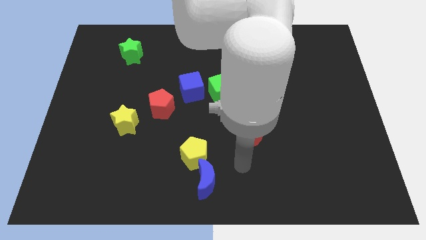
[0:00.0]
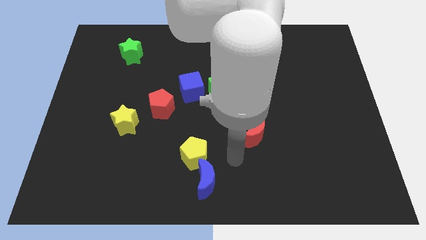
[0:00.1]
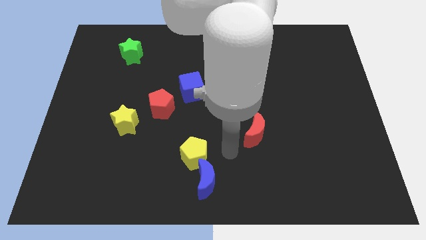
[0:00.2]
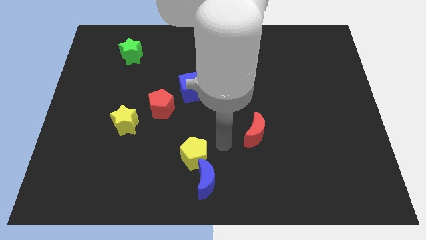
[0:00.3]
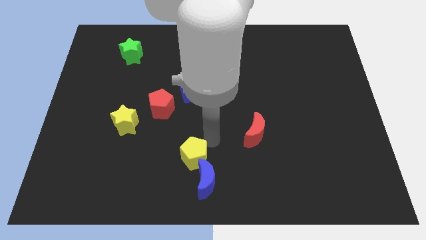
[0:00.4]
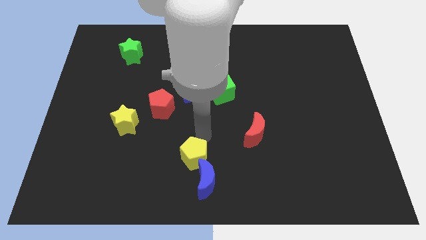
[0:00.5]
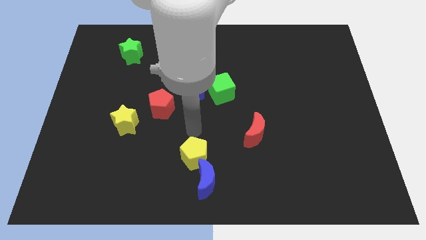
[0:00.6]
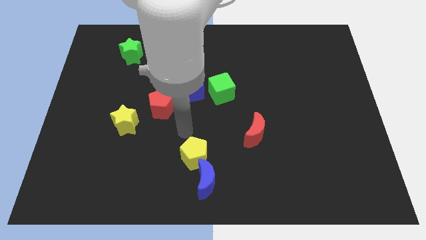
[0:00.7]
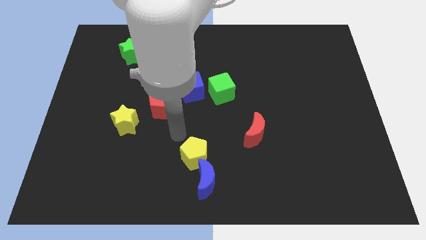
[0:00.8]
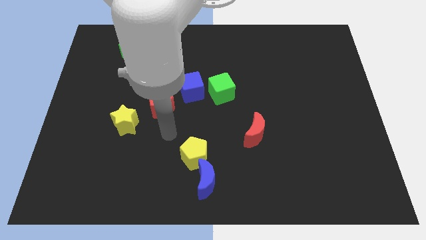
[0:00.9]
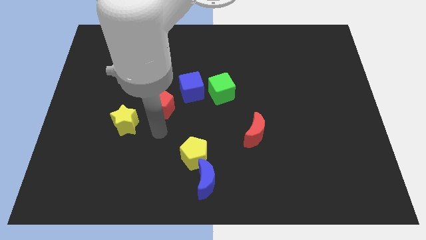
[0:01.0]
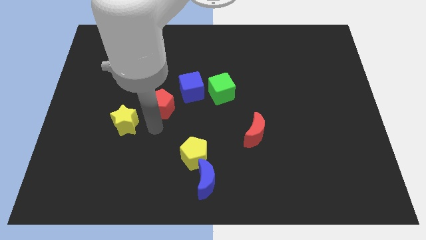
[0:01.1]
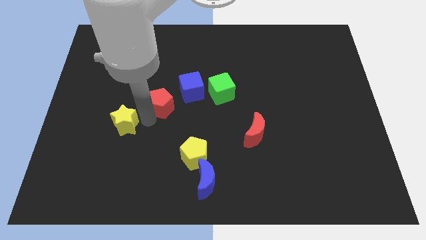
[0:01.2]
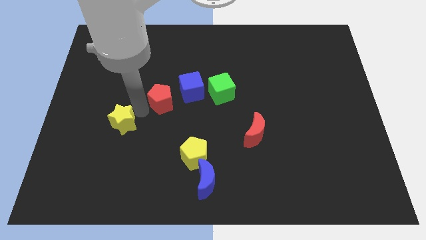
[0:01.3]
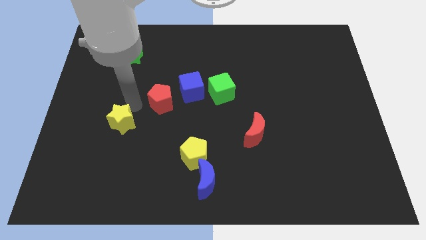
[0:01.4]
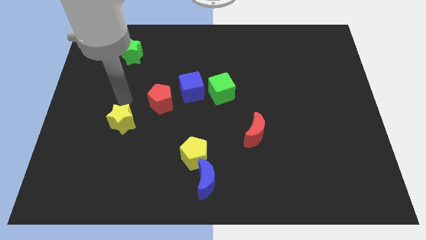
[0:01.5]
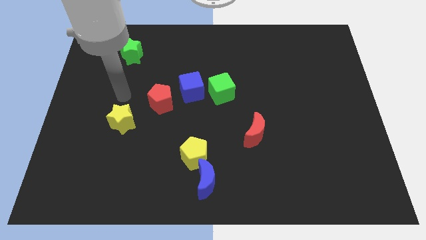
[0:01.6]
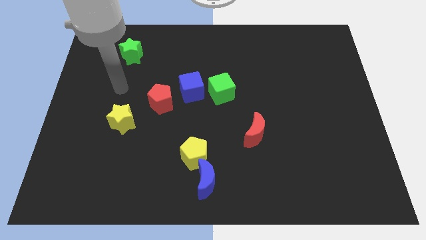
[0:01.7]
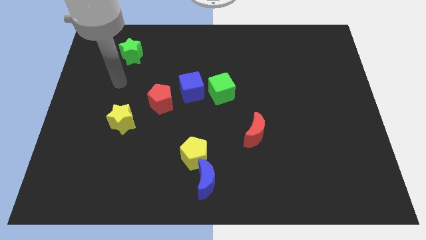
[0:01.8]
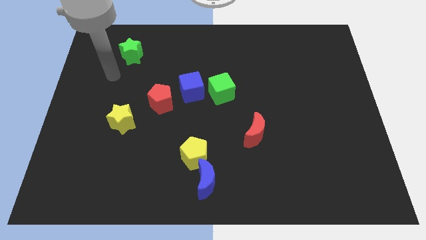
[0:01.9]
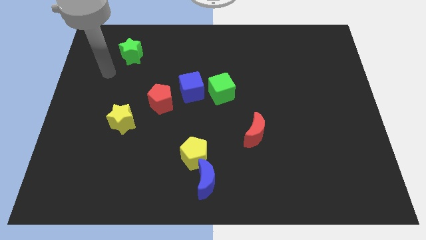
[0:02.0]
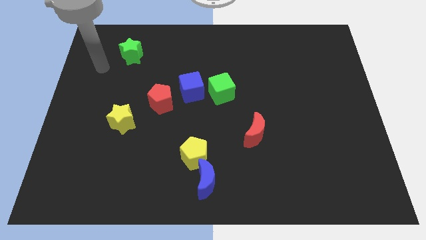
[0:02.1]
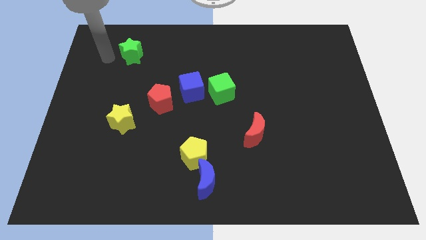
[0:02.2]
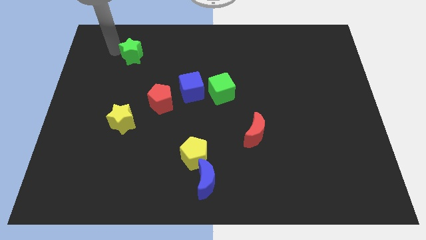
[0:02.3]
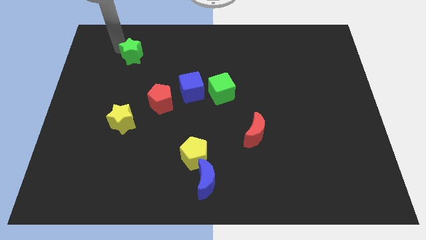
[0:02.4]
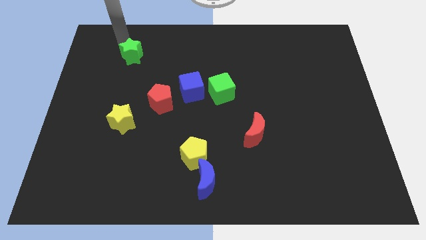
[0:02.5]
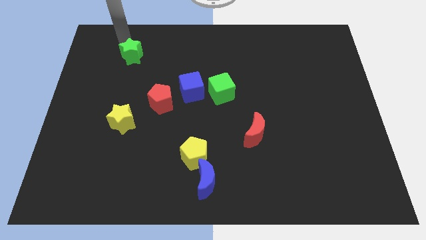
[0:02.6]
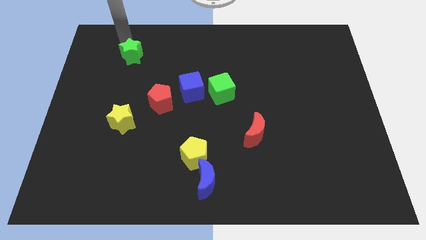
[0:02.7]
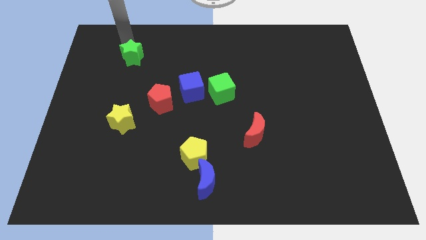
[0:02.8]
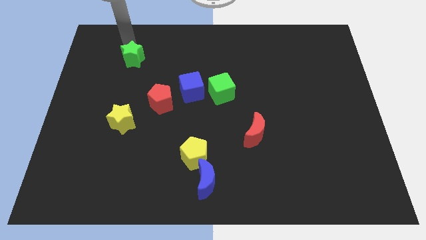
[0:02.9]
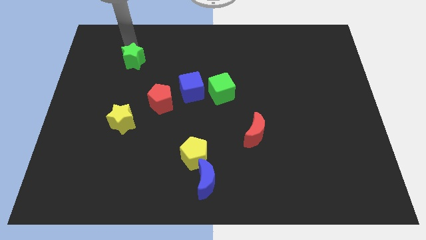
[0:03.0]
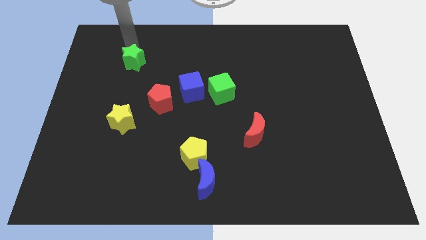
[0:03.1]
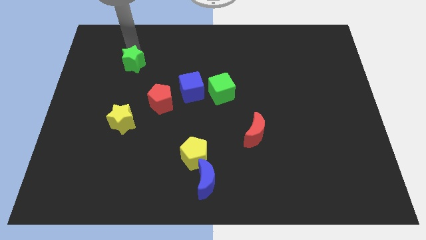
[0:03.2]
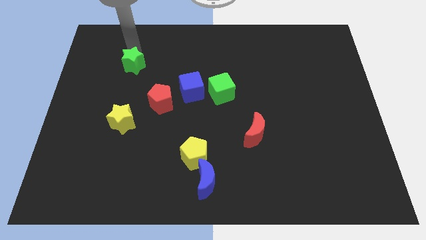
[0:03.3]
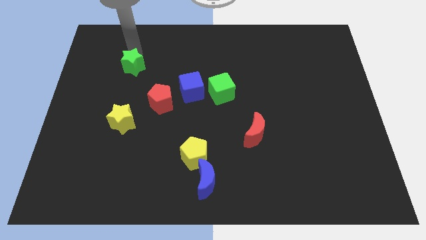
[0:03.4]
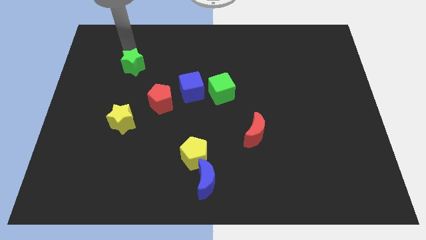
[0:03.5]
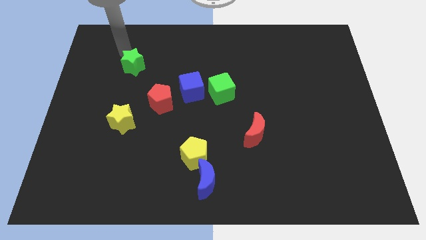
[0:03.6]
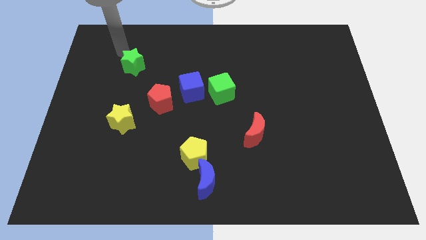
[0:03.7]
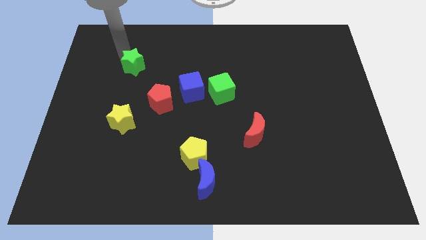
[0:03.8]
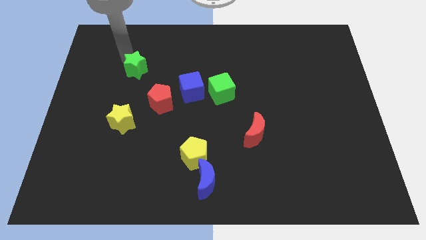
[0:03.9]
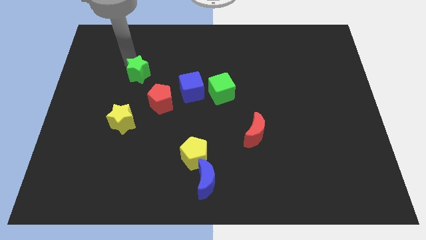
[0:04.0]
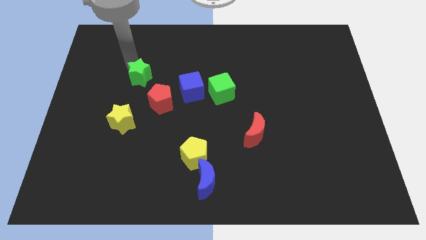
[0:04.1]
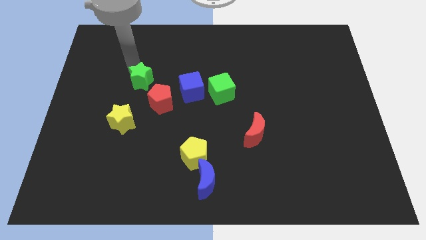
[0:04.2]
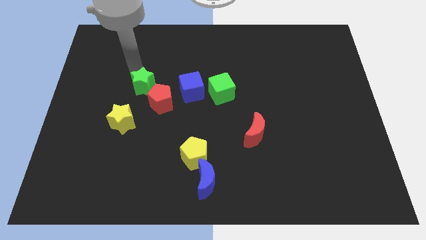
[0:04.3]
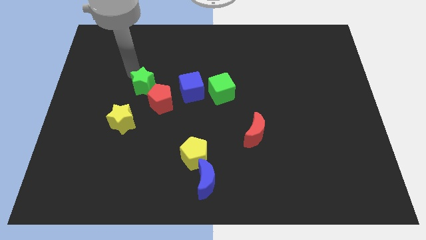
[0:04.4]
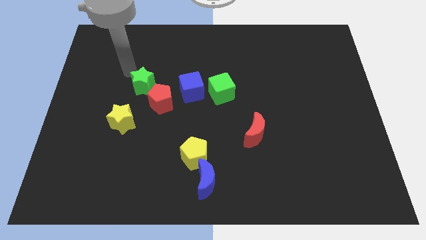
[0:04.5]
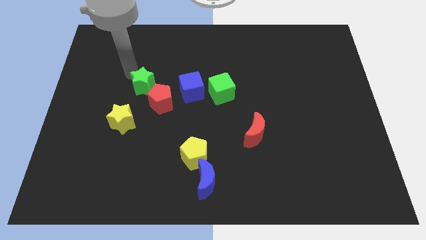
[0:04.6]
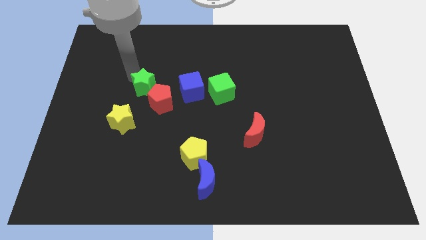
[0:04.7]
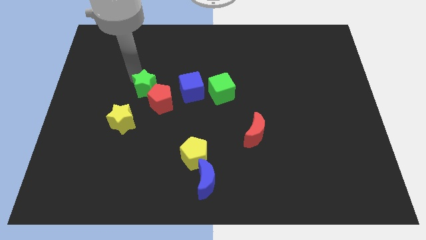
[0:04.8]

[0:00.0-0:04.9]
put the green star next to the red pentagon

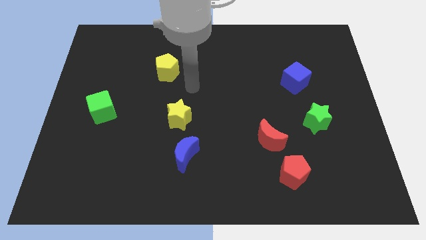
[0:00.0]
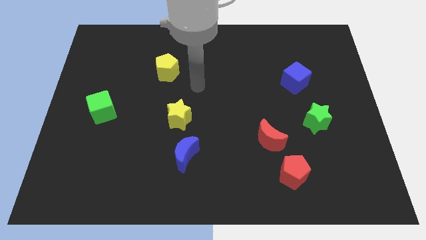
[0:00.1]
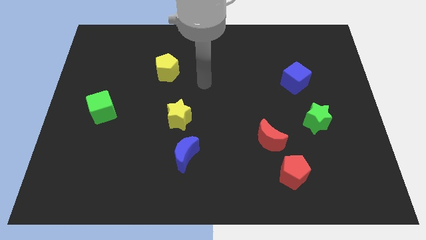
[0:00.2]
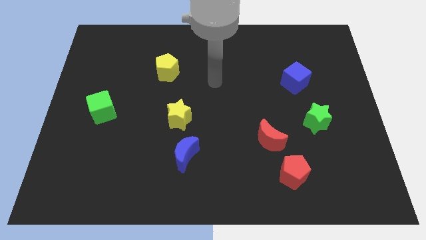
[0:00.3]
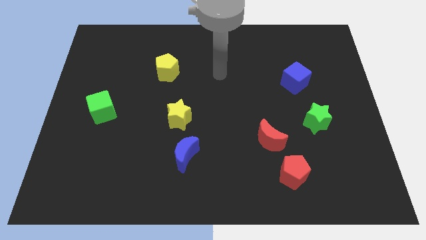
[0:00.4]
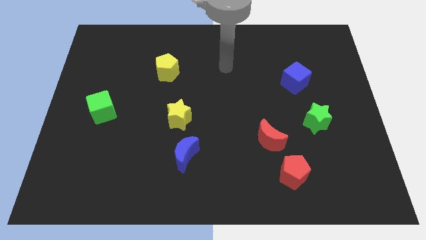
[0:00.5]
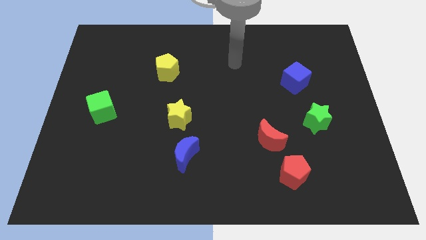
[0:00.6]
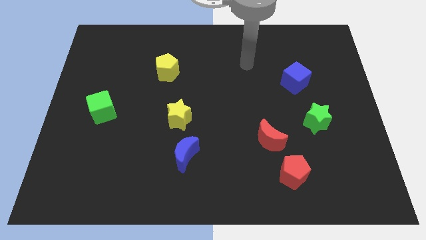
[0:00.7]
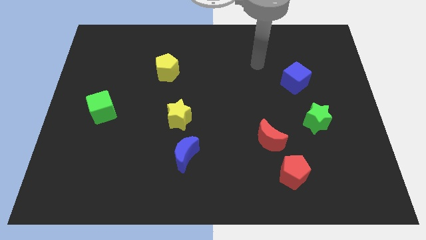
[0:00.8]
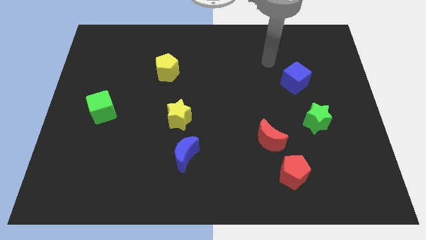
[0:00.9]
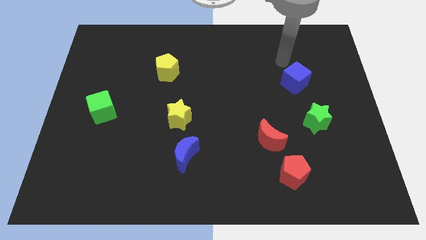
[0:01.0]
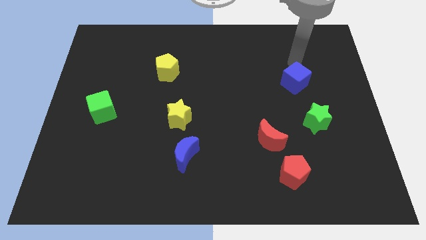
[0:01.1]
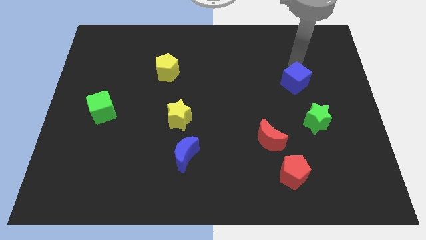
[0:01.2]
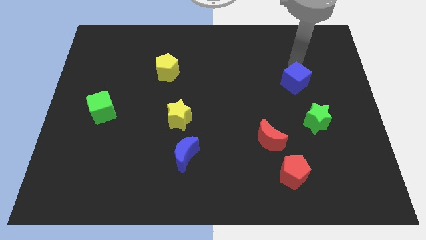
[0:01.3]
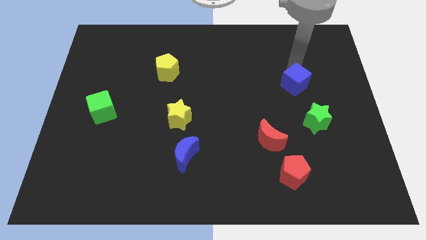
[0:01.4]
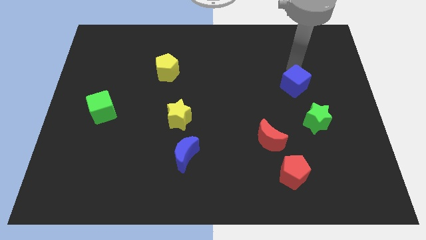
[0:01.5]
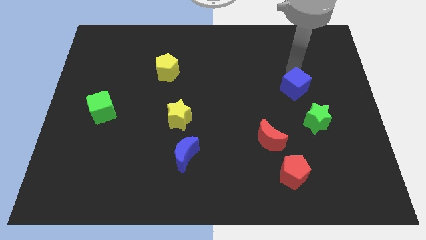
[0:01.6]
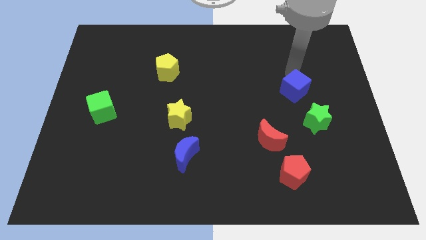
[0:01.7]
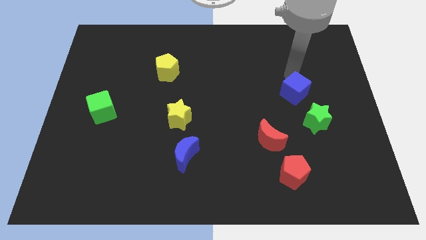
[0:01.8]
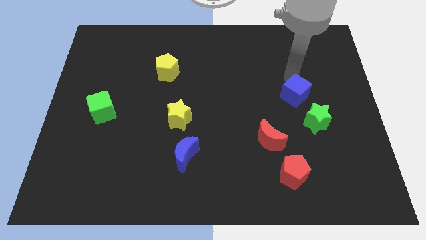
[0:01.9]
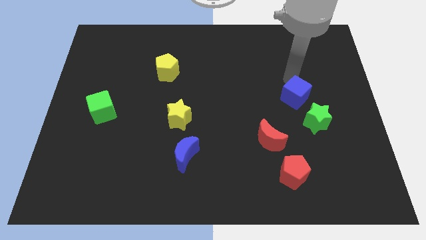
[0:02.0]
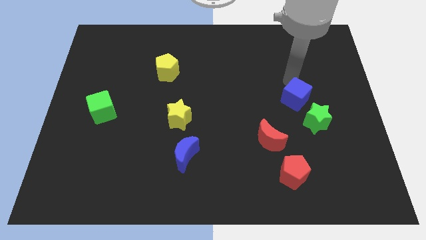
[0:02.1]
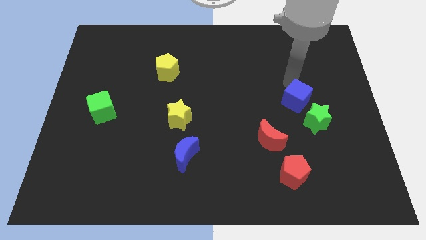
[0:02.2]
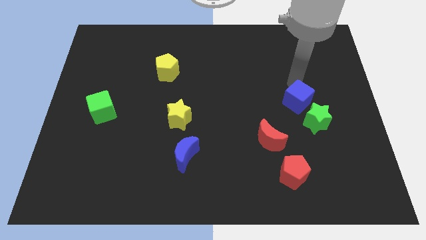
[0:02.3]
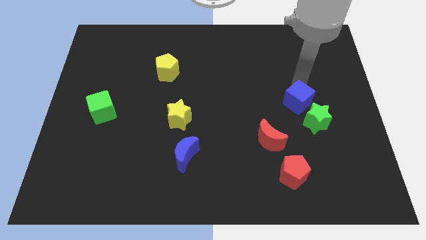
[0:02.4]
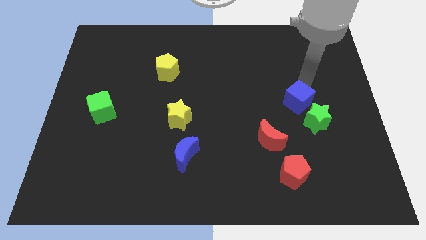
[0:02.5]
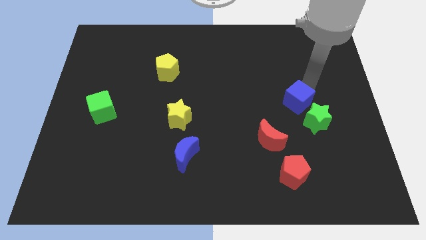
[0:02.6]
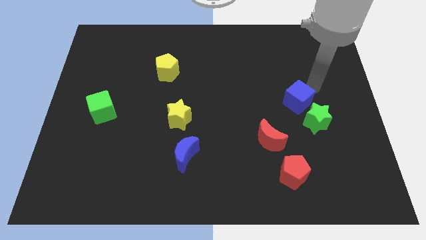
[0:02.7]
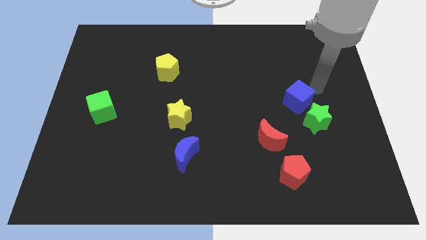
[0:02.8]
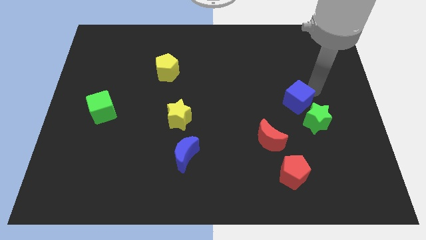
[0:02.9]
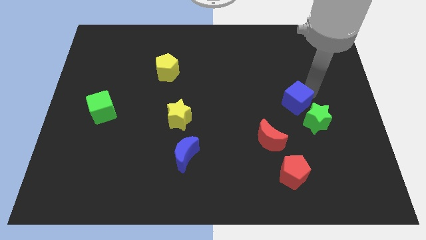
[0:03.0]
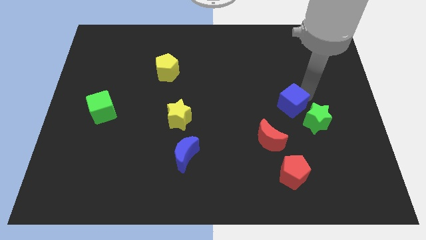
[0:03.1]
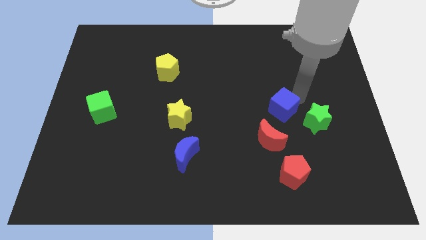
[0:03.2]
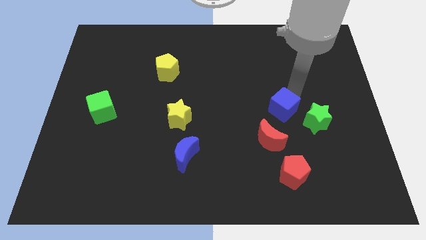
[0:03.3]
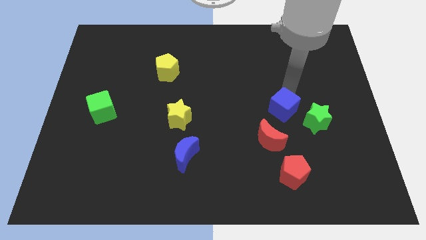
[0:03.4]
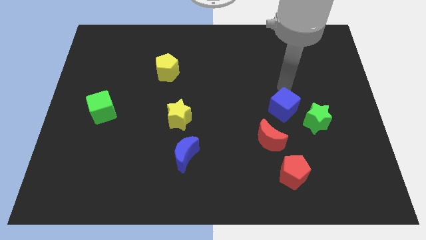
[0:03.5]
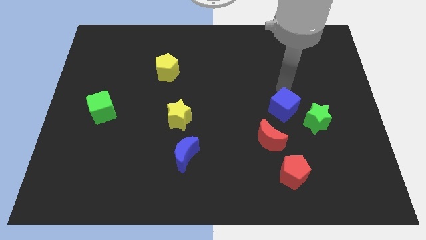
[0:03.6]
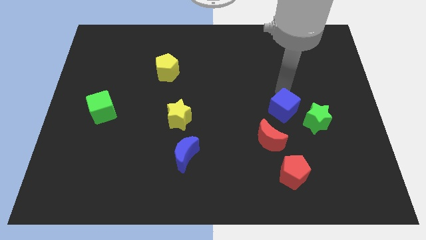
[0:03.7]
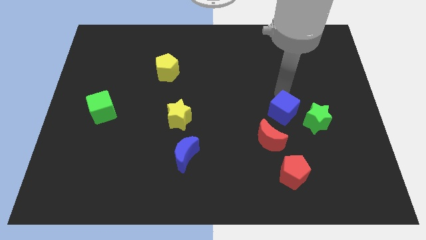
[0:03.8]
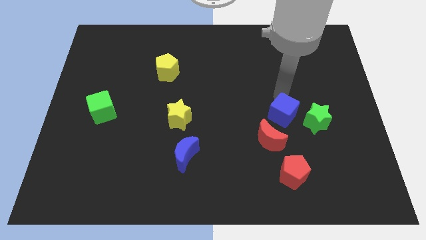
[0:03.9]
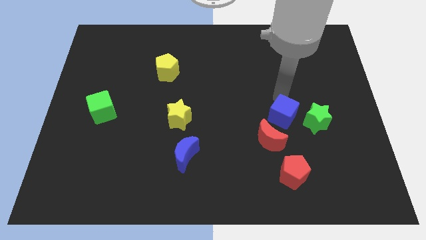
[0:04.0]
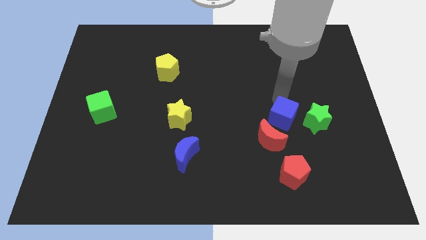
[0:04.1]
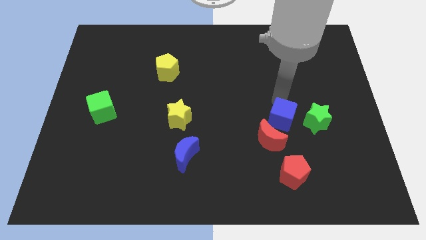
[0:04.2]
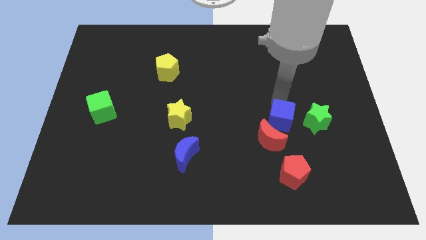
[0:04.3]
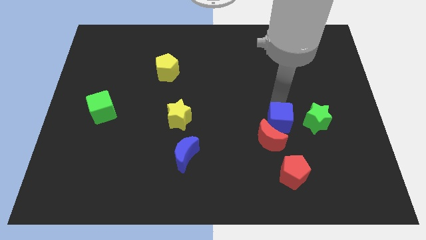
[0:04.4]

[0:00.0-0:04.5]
put the blue cube to the red moon
